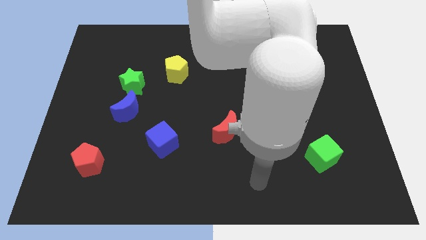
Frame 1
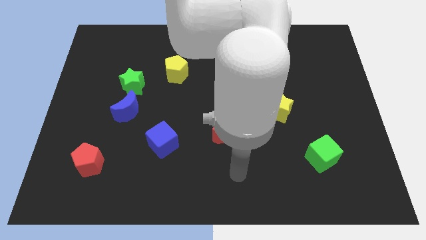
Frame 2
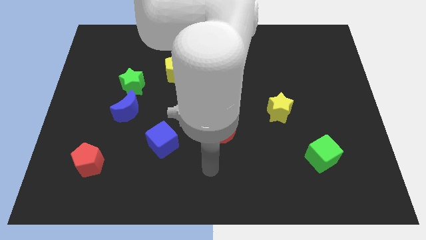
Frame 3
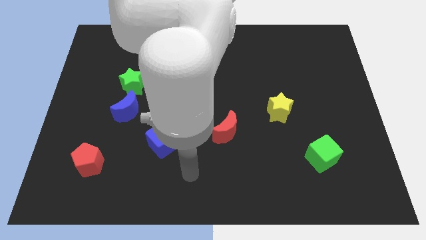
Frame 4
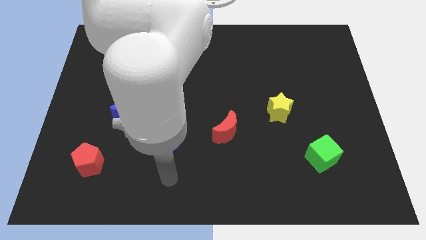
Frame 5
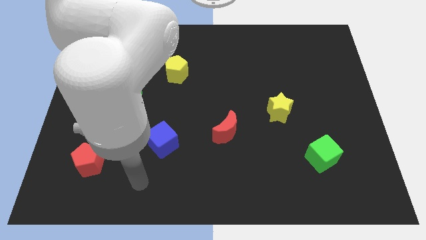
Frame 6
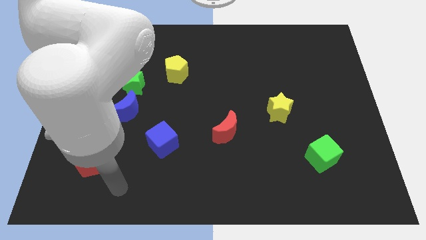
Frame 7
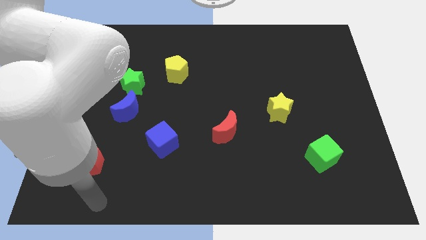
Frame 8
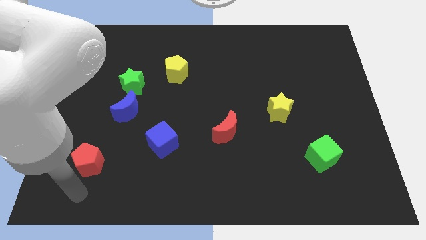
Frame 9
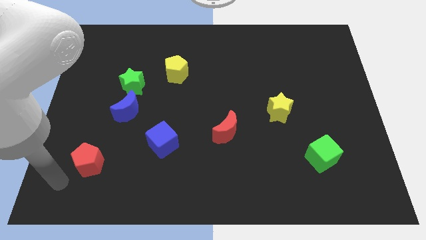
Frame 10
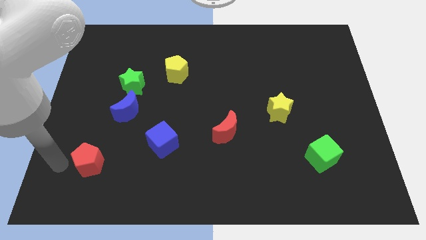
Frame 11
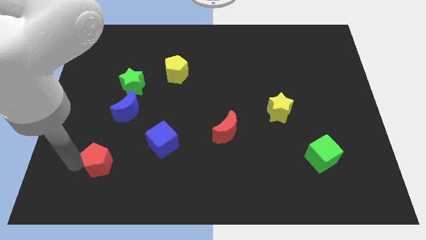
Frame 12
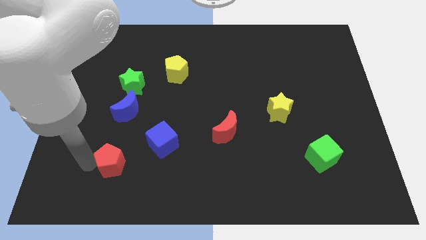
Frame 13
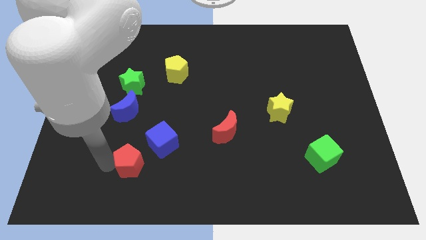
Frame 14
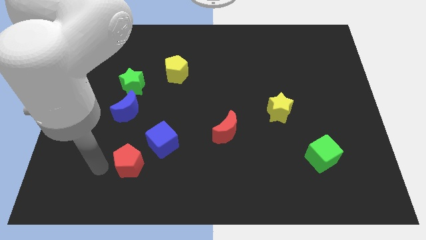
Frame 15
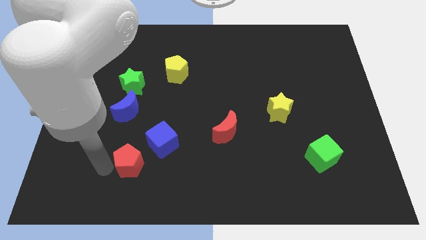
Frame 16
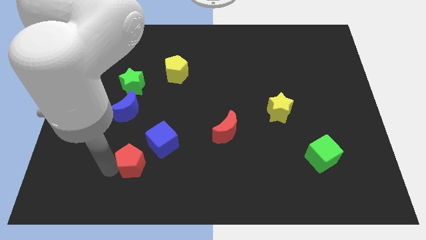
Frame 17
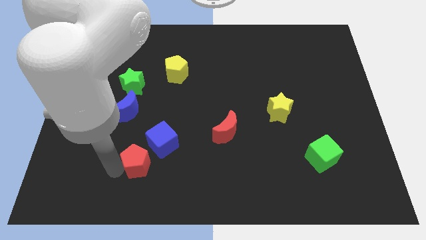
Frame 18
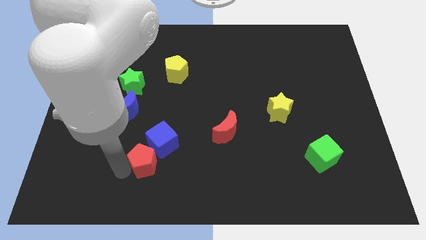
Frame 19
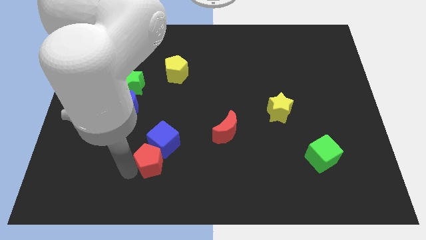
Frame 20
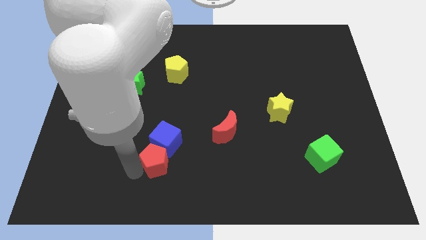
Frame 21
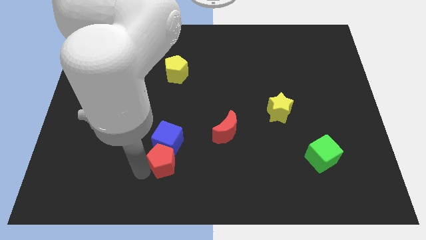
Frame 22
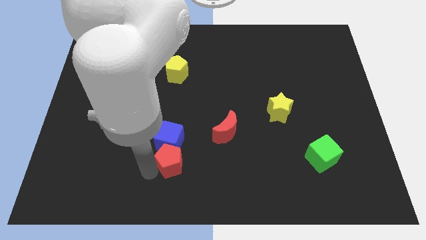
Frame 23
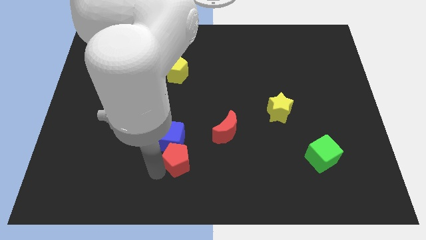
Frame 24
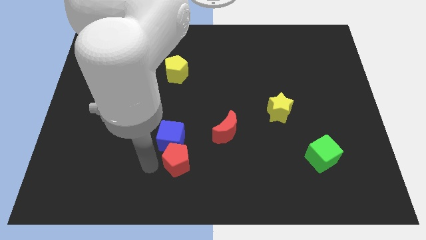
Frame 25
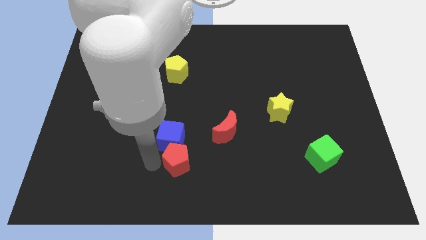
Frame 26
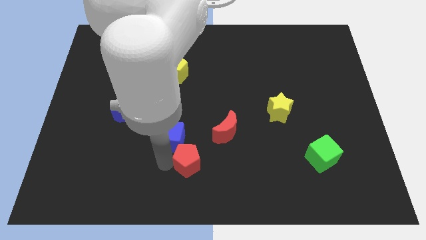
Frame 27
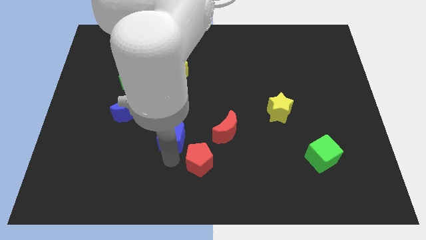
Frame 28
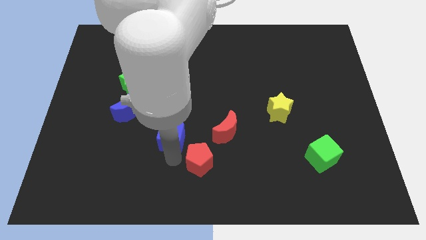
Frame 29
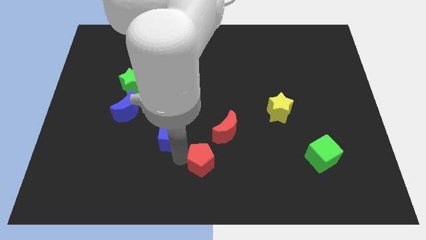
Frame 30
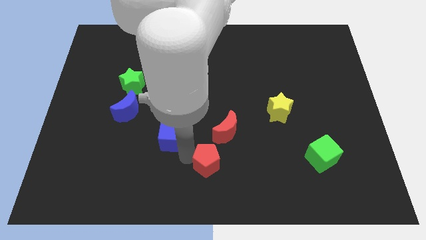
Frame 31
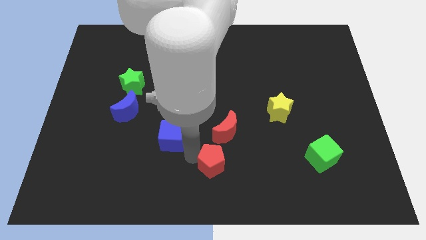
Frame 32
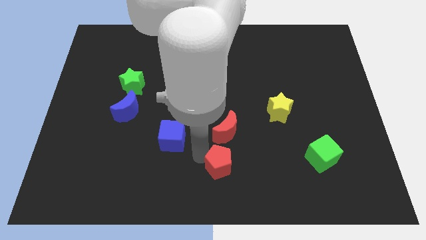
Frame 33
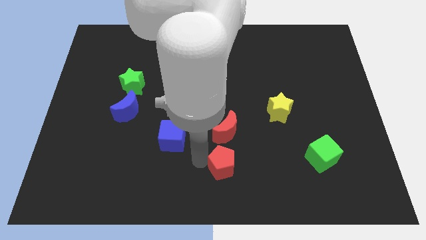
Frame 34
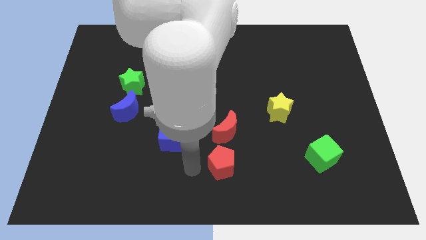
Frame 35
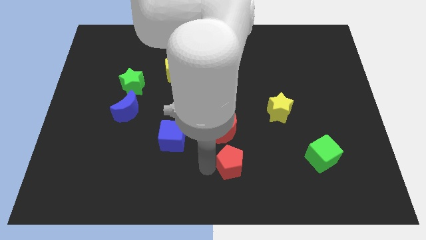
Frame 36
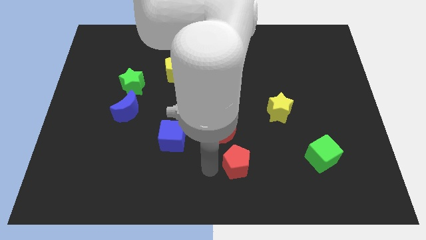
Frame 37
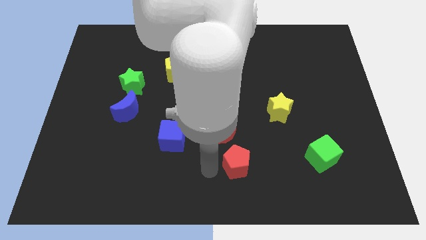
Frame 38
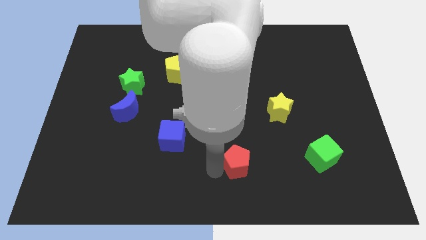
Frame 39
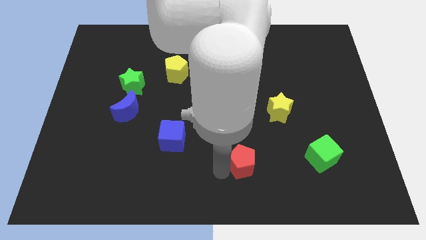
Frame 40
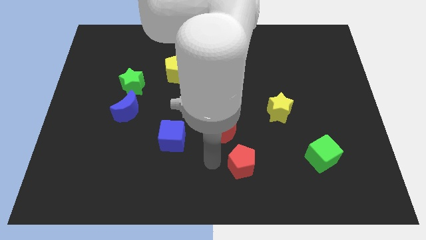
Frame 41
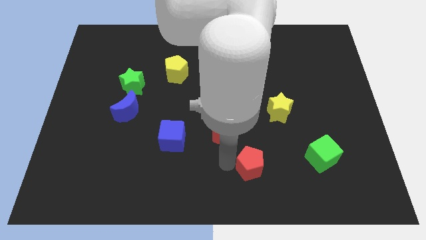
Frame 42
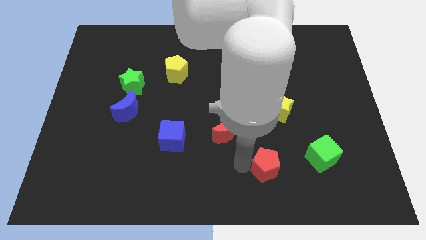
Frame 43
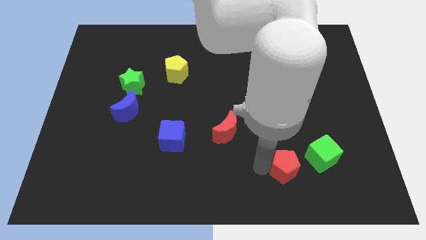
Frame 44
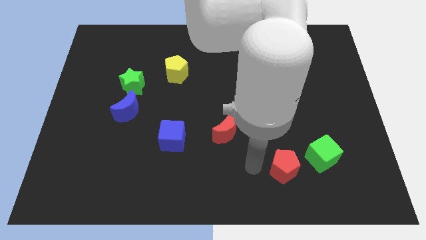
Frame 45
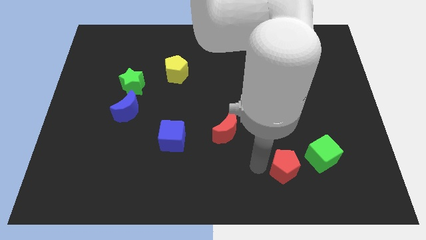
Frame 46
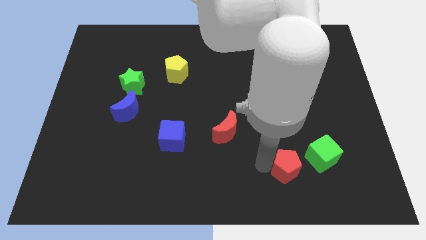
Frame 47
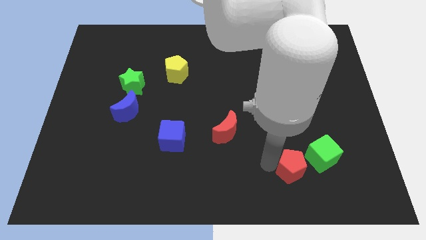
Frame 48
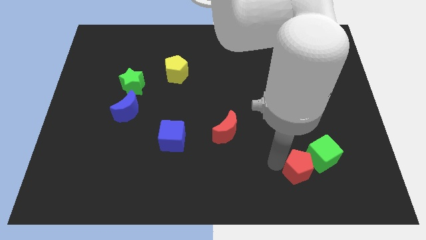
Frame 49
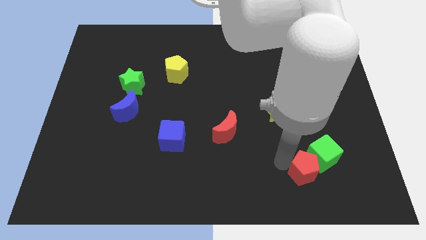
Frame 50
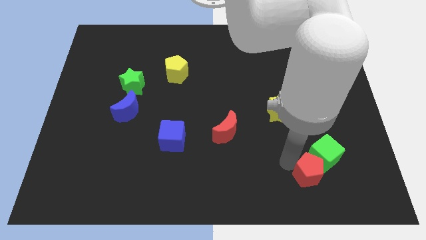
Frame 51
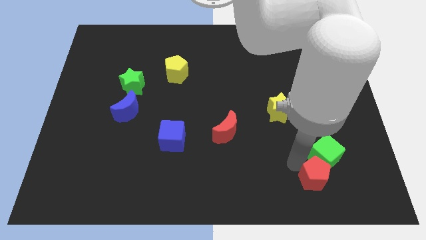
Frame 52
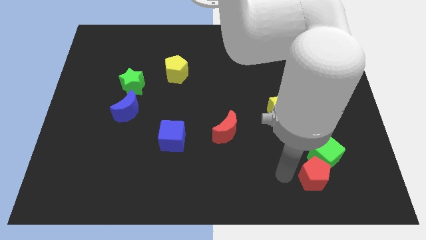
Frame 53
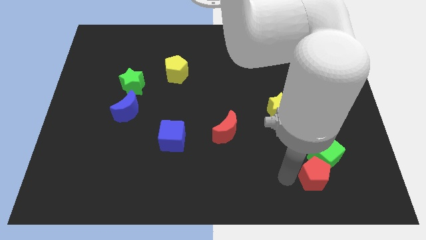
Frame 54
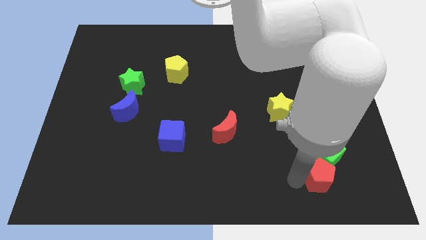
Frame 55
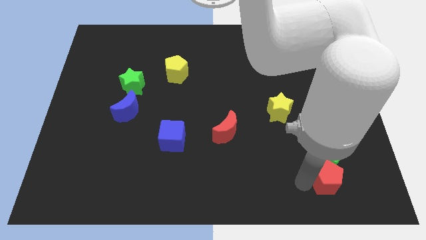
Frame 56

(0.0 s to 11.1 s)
move the red pentagon to the bottom right of the green cube
